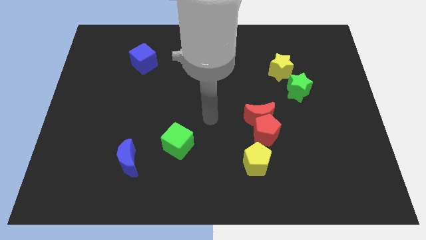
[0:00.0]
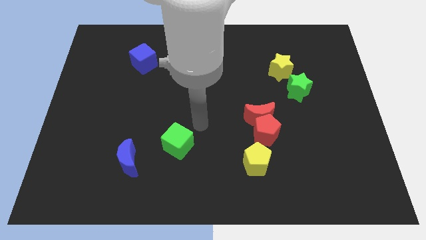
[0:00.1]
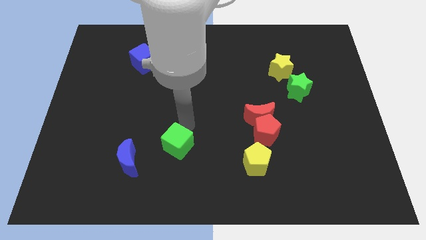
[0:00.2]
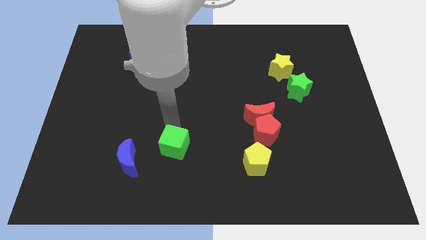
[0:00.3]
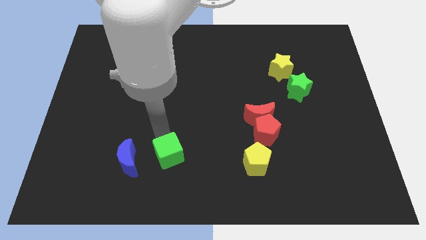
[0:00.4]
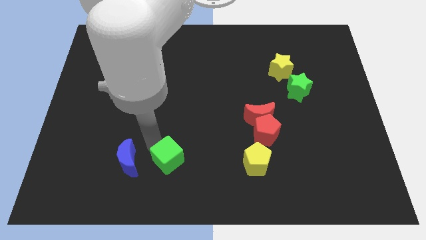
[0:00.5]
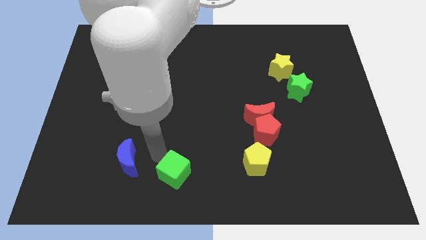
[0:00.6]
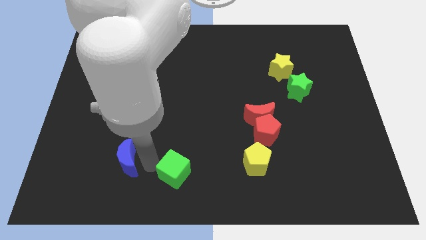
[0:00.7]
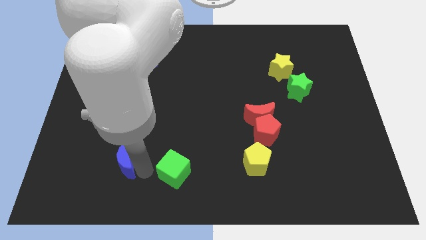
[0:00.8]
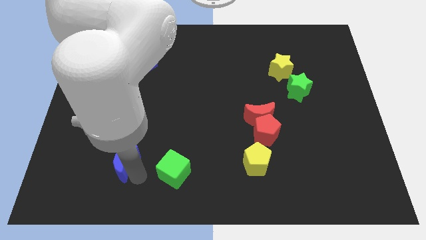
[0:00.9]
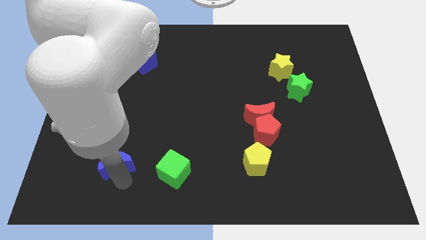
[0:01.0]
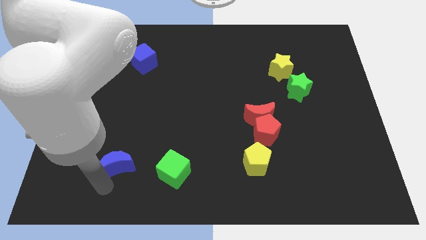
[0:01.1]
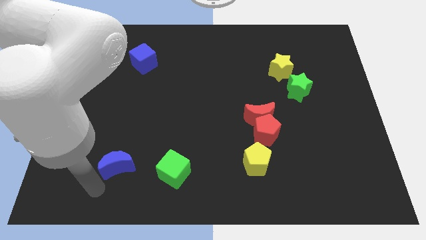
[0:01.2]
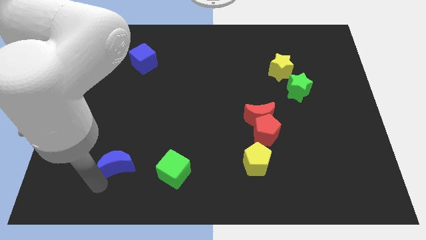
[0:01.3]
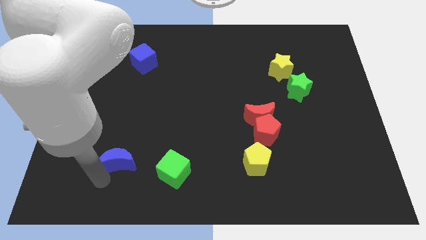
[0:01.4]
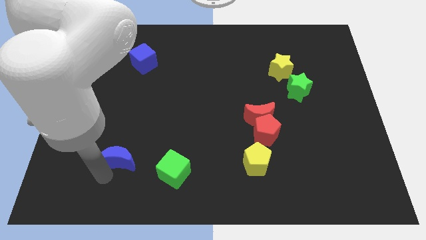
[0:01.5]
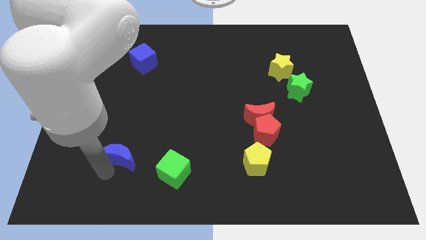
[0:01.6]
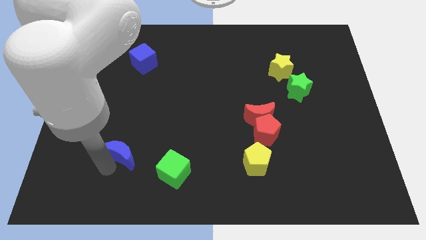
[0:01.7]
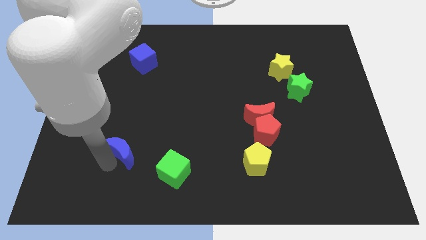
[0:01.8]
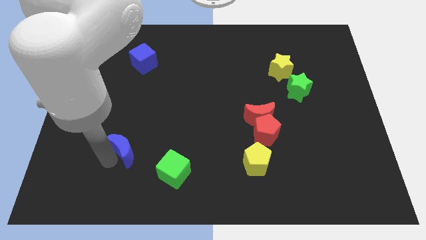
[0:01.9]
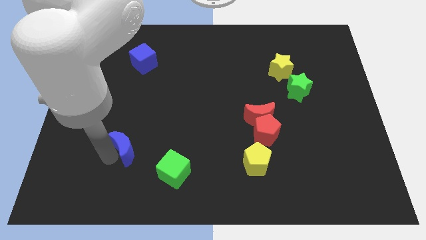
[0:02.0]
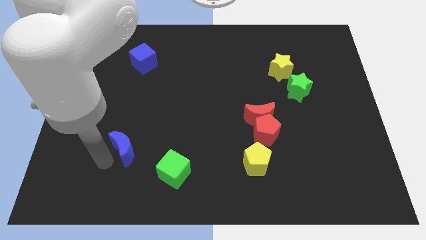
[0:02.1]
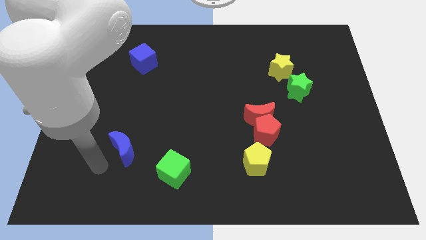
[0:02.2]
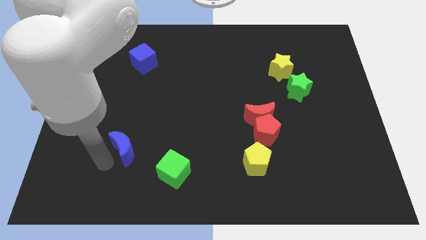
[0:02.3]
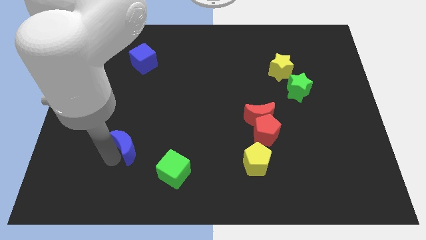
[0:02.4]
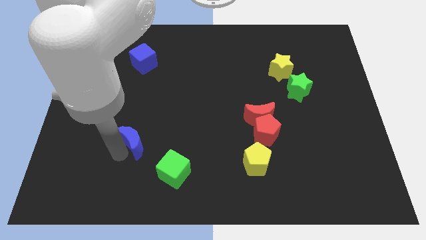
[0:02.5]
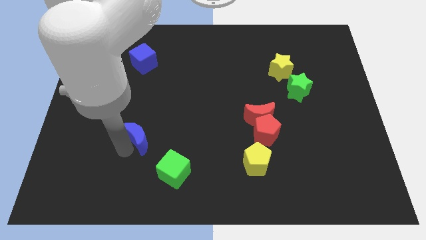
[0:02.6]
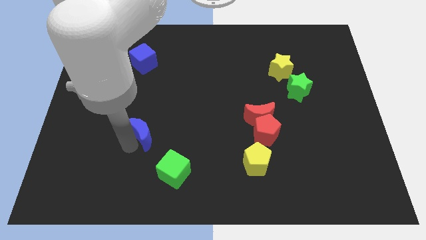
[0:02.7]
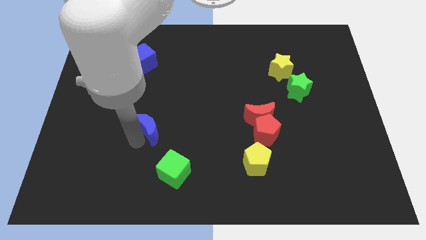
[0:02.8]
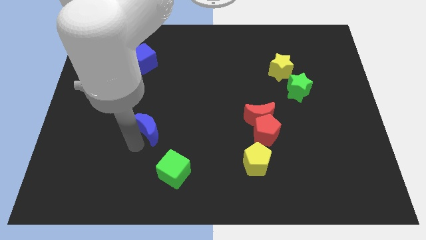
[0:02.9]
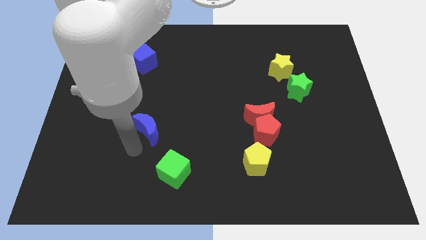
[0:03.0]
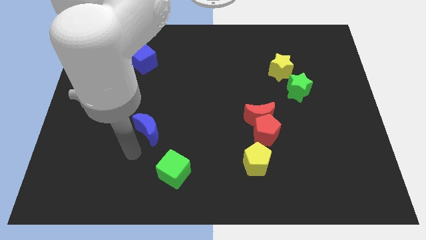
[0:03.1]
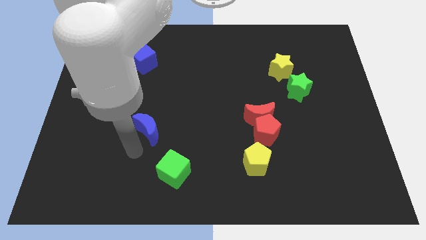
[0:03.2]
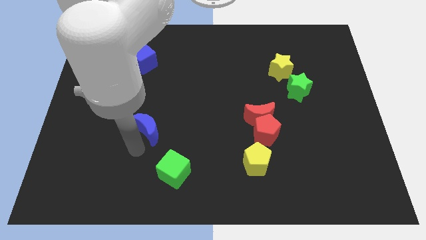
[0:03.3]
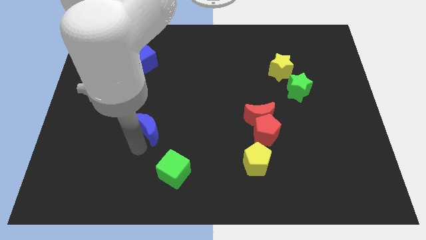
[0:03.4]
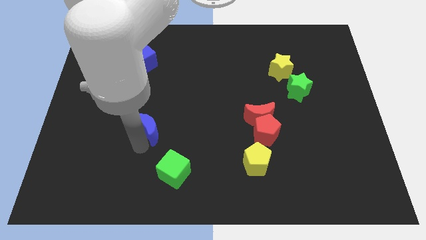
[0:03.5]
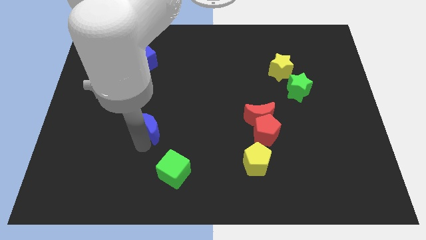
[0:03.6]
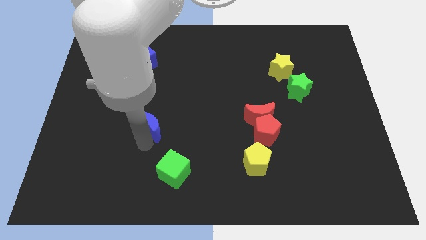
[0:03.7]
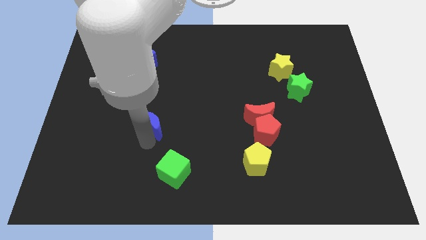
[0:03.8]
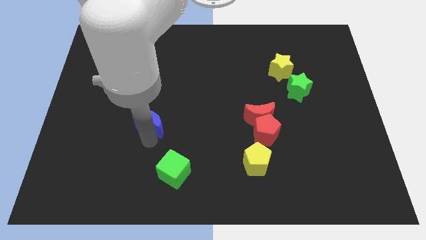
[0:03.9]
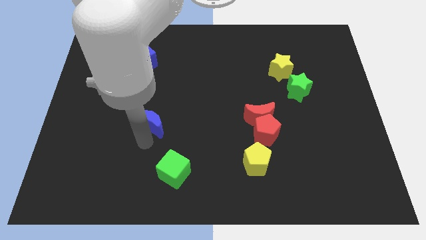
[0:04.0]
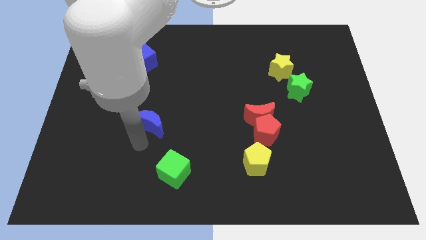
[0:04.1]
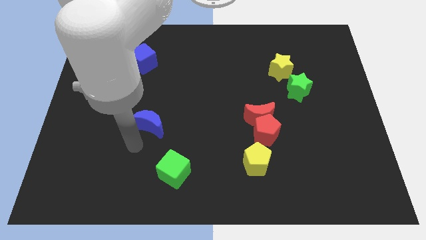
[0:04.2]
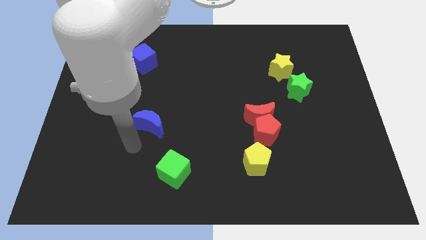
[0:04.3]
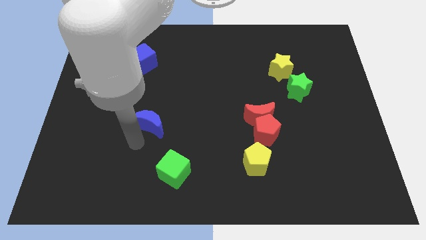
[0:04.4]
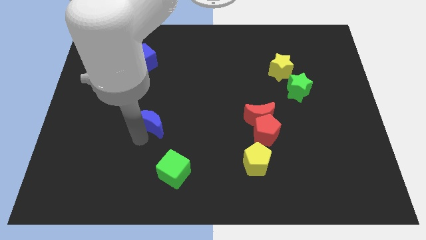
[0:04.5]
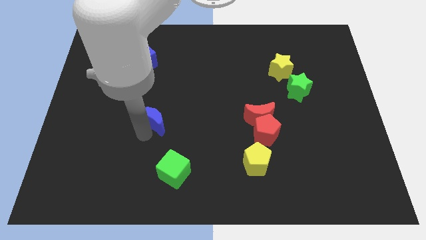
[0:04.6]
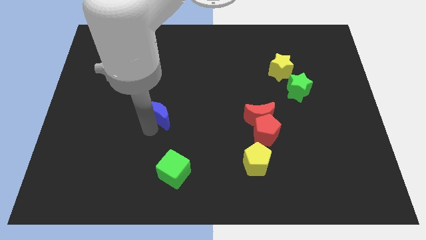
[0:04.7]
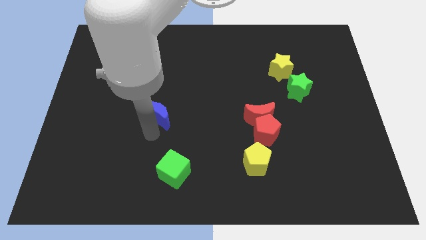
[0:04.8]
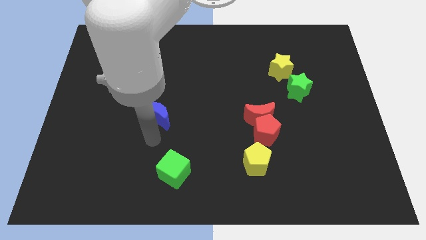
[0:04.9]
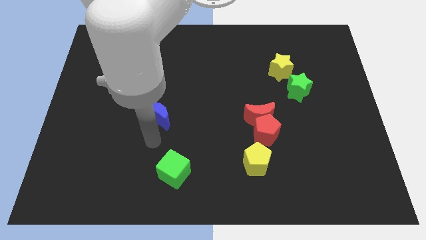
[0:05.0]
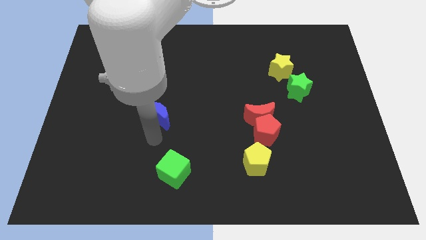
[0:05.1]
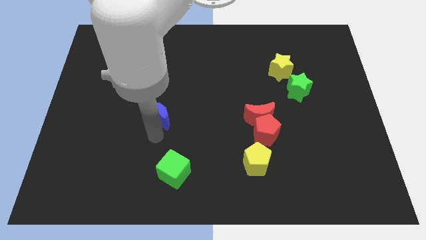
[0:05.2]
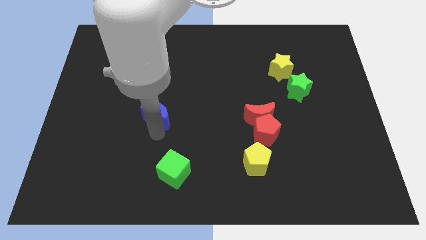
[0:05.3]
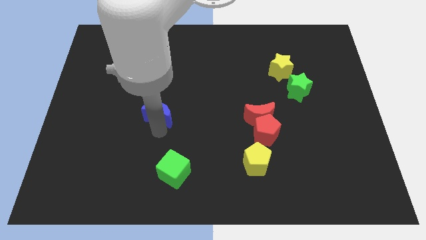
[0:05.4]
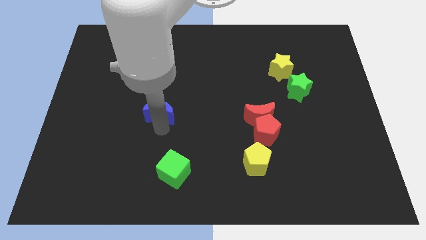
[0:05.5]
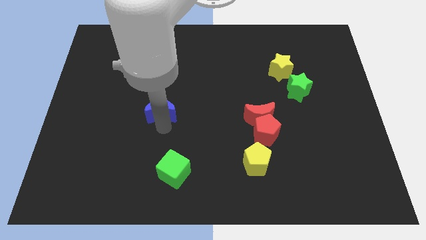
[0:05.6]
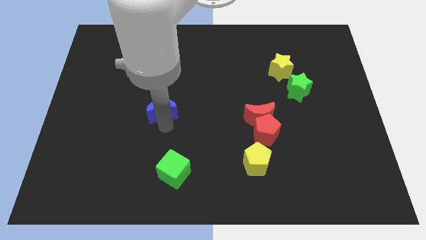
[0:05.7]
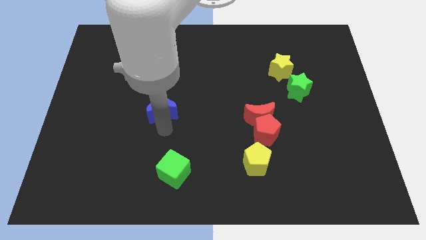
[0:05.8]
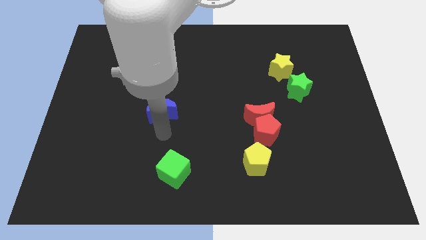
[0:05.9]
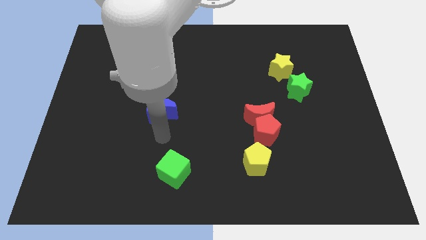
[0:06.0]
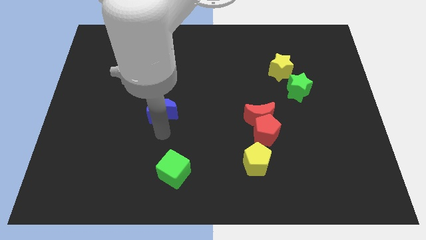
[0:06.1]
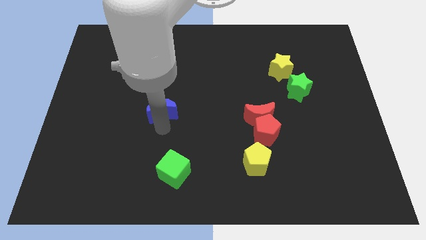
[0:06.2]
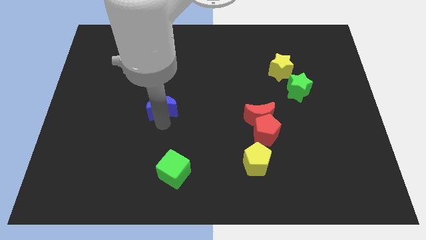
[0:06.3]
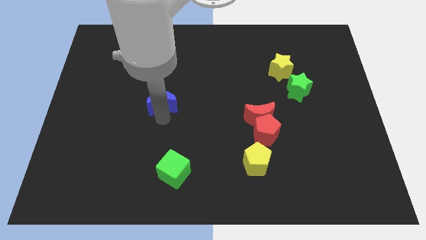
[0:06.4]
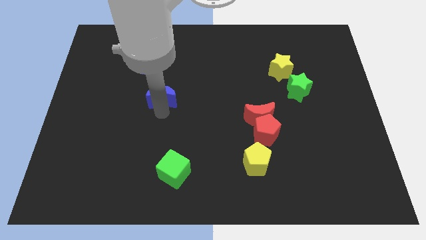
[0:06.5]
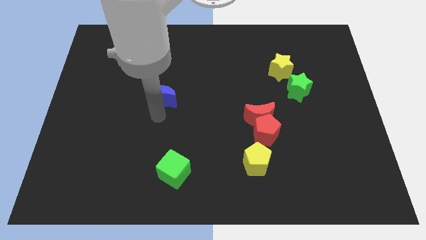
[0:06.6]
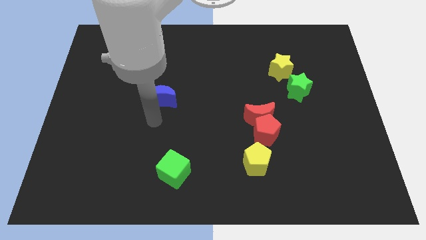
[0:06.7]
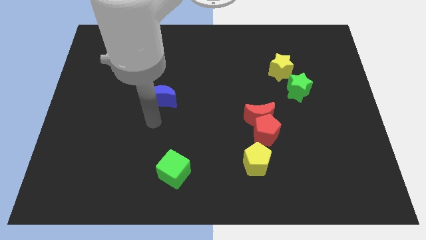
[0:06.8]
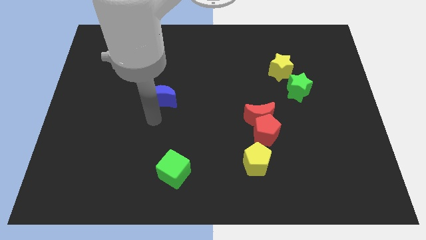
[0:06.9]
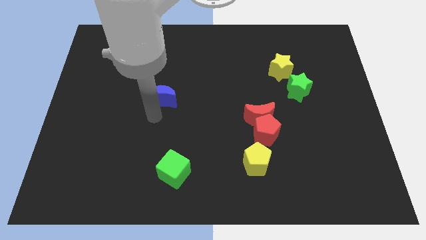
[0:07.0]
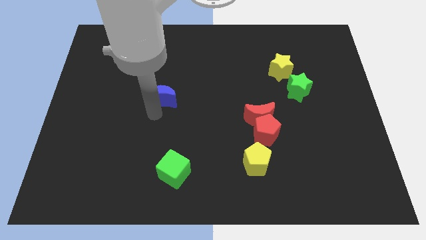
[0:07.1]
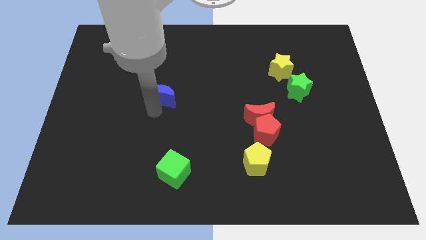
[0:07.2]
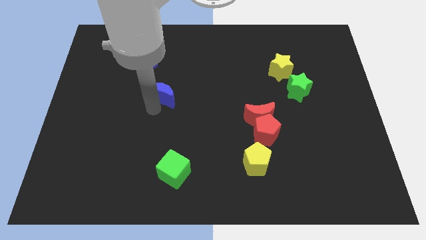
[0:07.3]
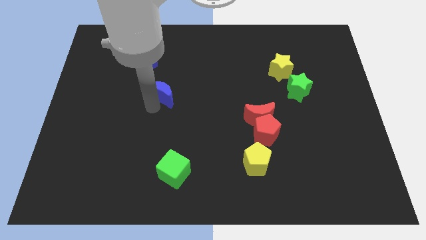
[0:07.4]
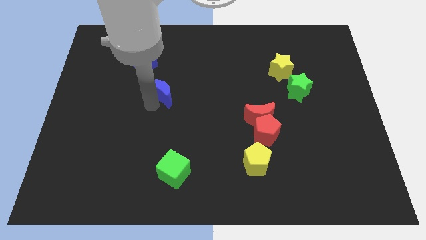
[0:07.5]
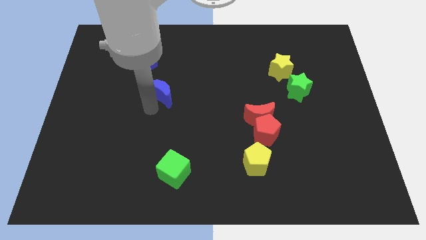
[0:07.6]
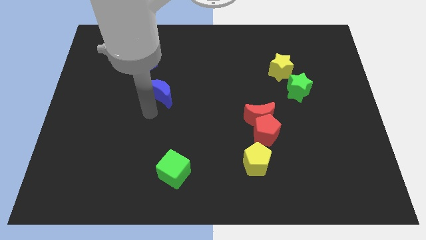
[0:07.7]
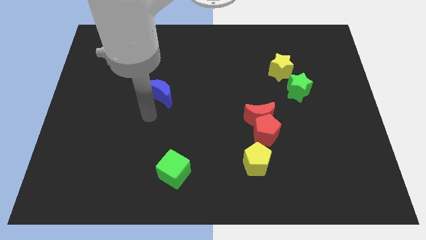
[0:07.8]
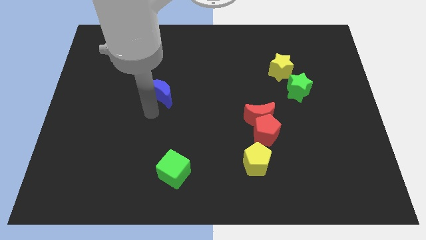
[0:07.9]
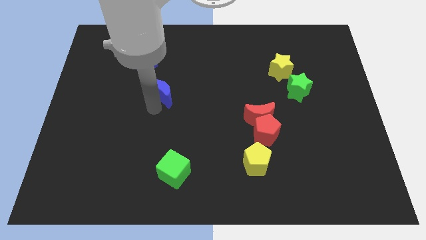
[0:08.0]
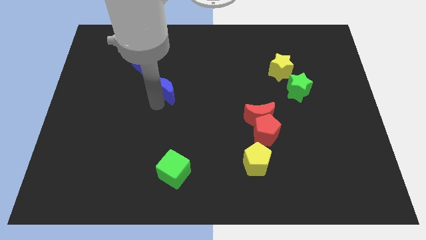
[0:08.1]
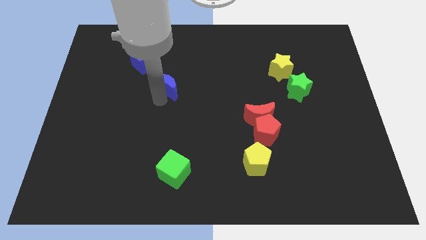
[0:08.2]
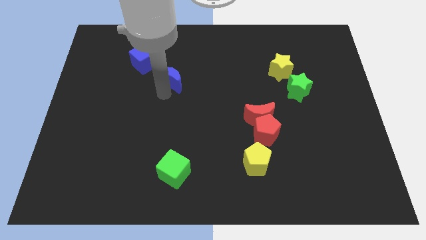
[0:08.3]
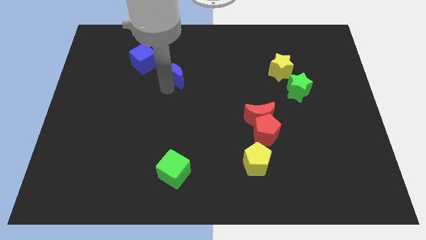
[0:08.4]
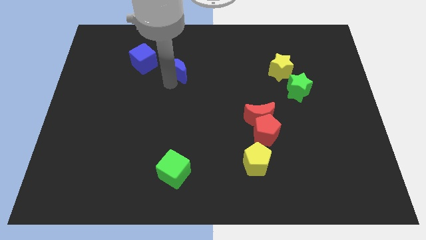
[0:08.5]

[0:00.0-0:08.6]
slide the blue moon just right of the blue cube
